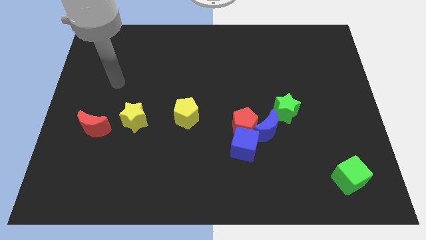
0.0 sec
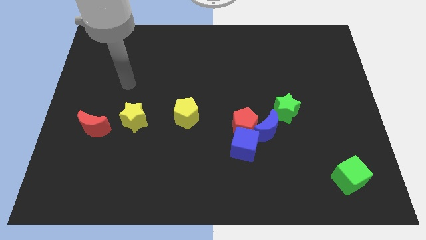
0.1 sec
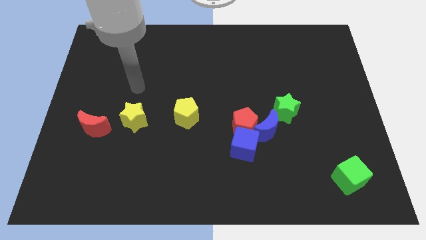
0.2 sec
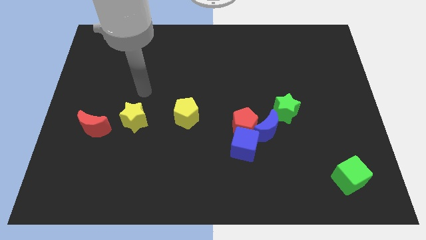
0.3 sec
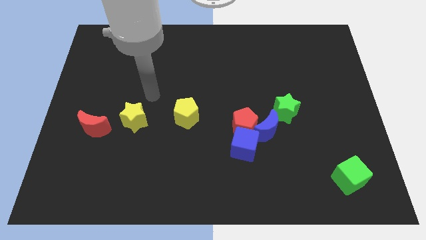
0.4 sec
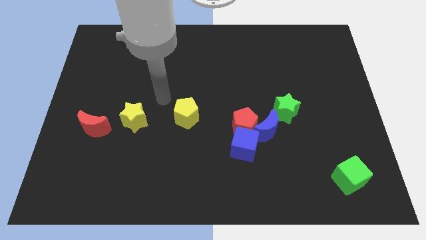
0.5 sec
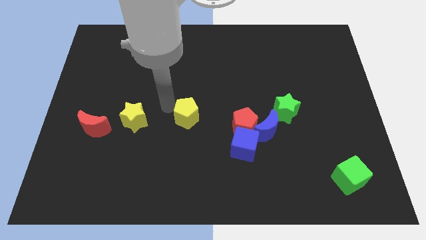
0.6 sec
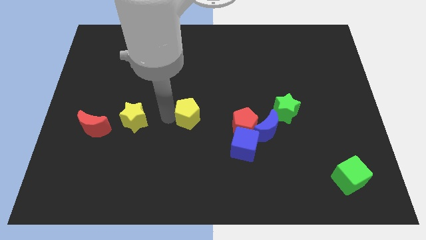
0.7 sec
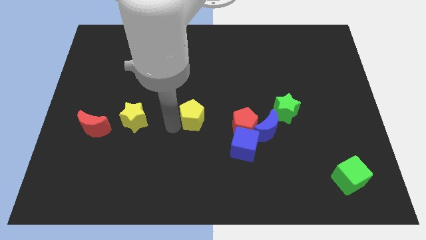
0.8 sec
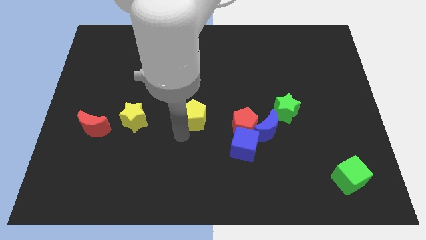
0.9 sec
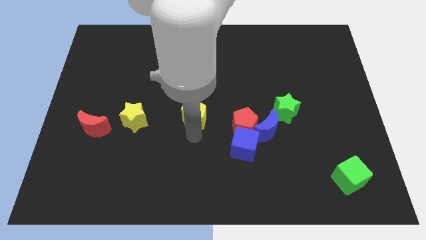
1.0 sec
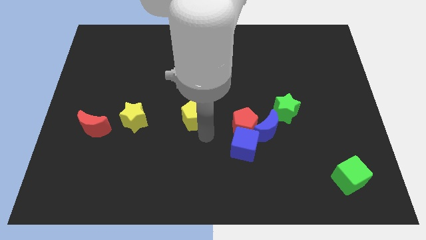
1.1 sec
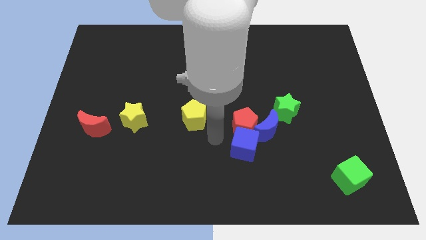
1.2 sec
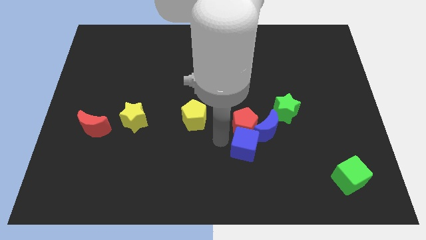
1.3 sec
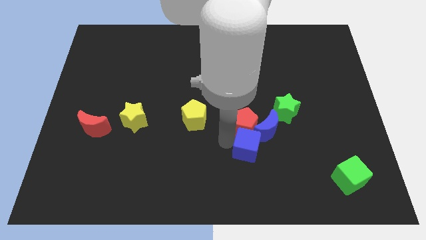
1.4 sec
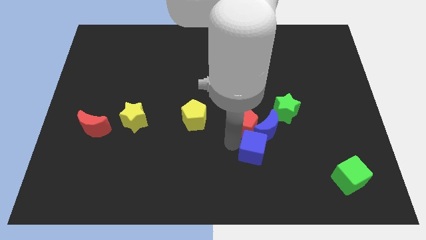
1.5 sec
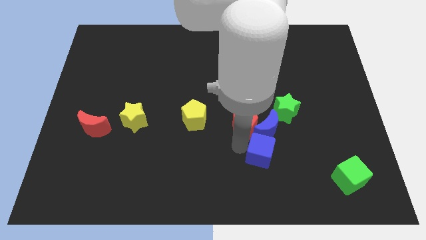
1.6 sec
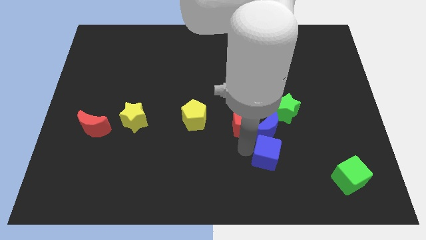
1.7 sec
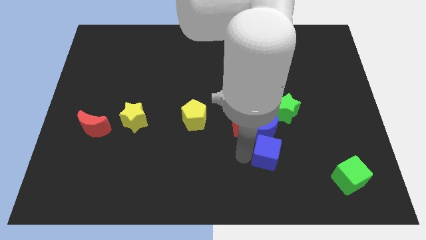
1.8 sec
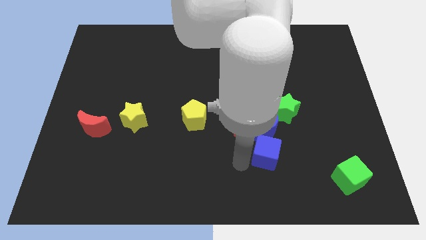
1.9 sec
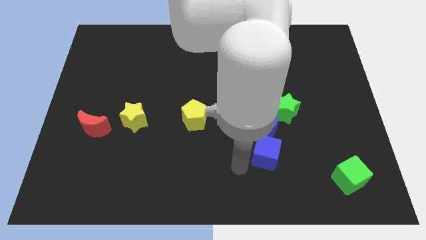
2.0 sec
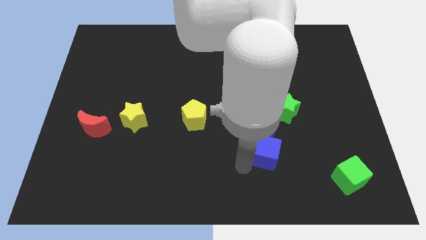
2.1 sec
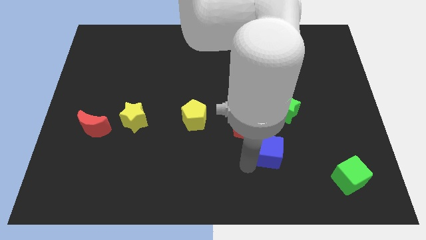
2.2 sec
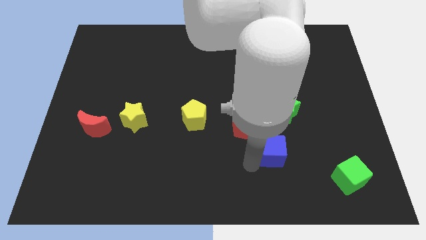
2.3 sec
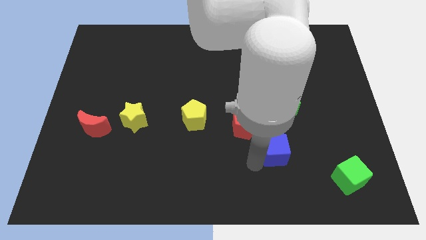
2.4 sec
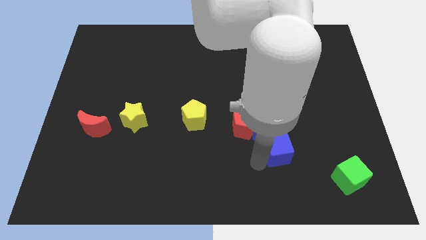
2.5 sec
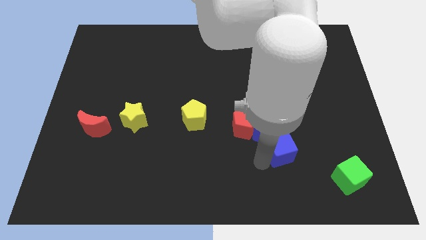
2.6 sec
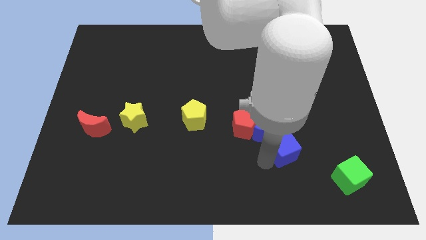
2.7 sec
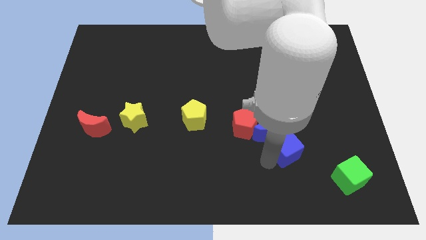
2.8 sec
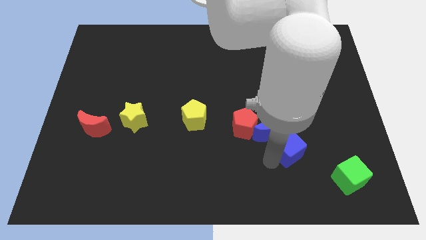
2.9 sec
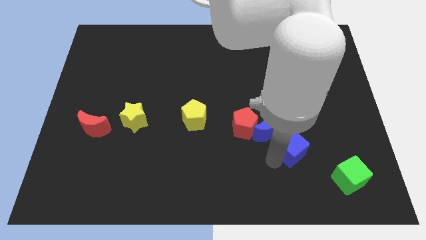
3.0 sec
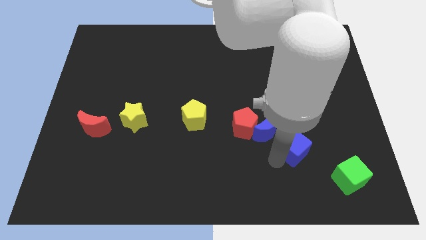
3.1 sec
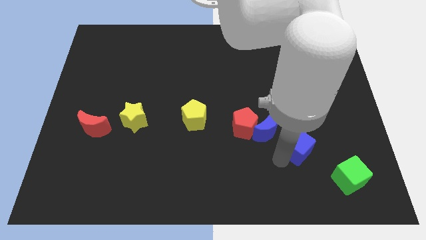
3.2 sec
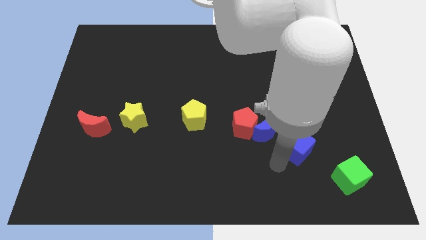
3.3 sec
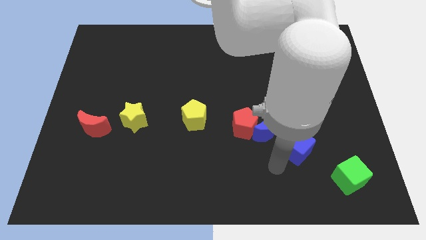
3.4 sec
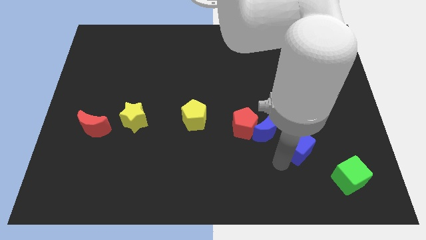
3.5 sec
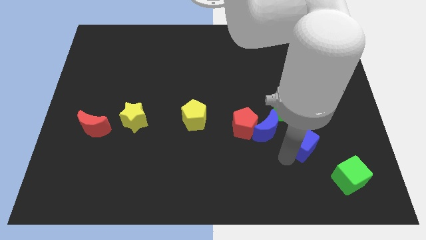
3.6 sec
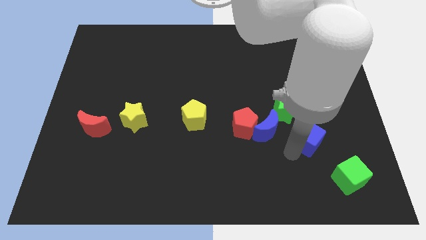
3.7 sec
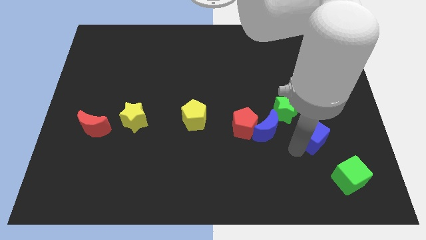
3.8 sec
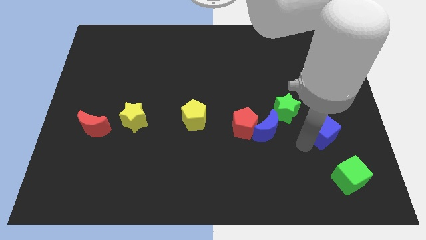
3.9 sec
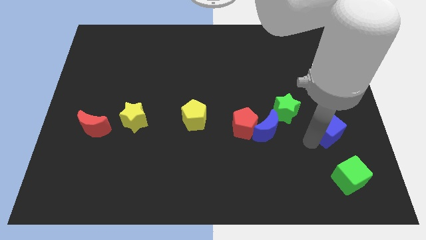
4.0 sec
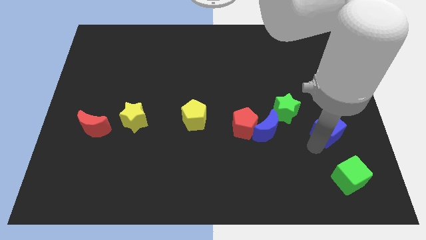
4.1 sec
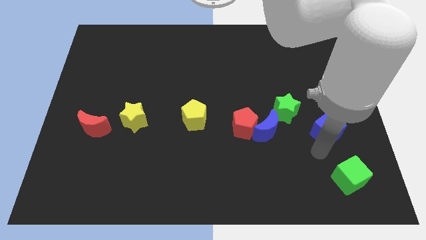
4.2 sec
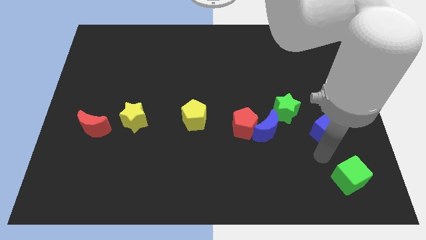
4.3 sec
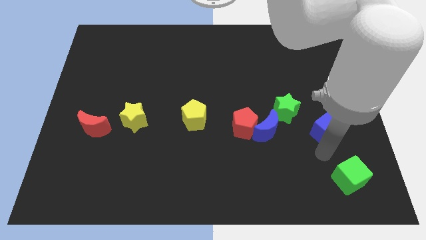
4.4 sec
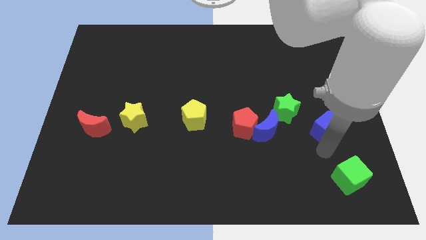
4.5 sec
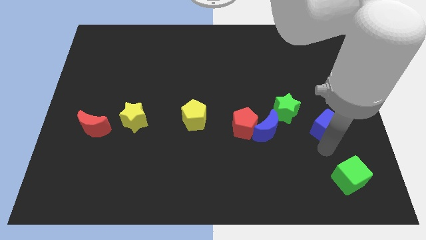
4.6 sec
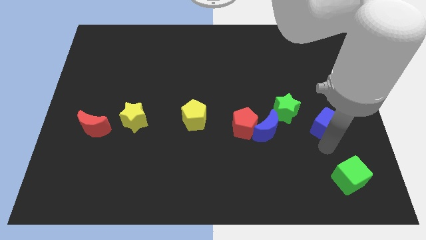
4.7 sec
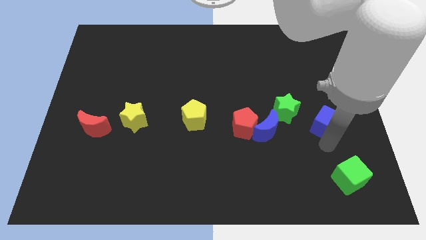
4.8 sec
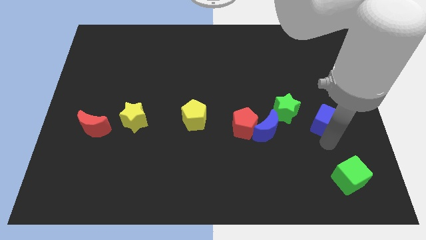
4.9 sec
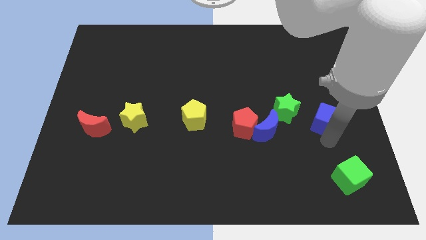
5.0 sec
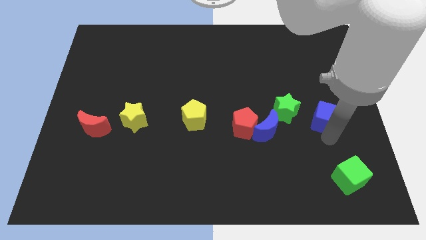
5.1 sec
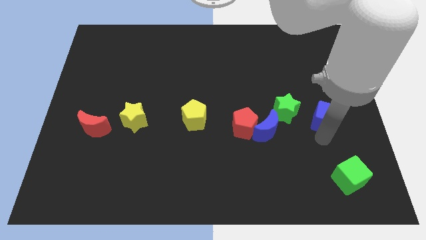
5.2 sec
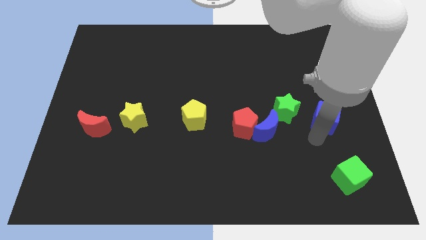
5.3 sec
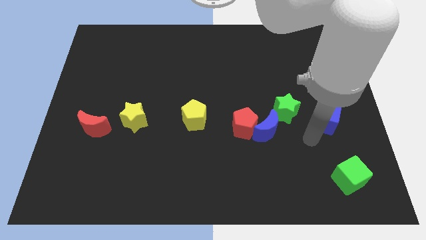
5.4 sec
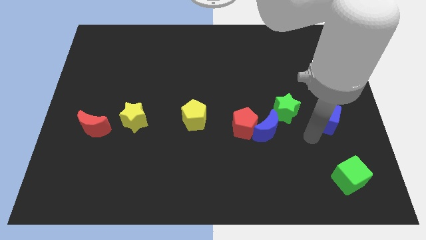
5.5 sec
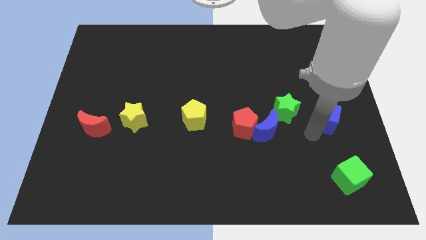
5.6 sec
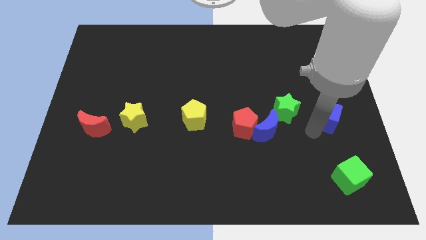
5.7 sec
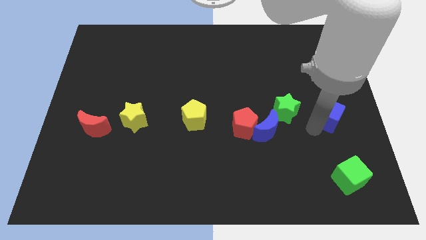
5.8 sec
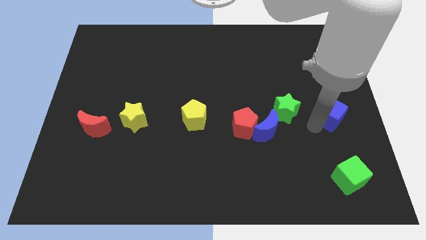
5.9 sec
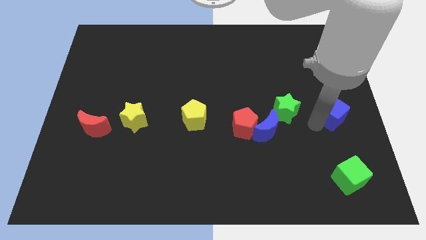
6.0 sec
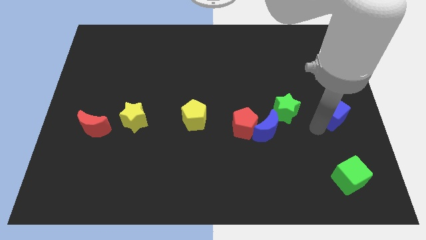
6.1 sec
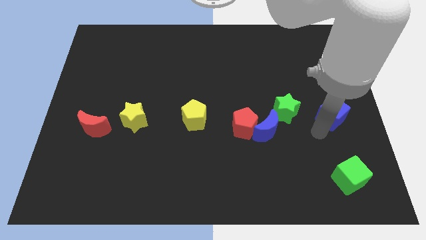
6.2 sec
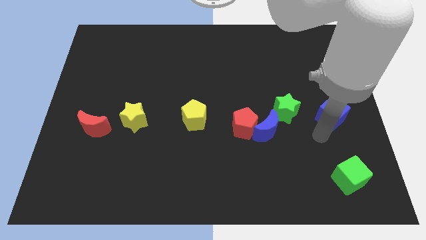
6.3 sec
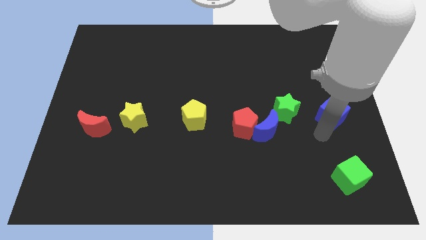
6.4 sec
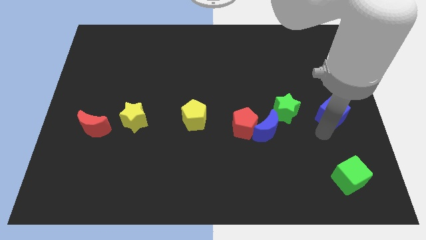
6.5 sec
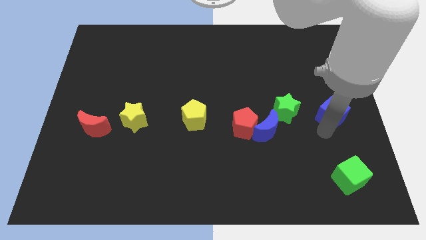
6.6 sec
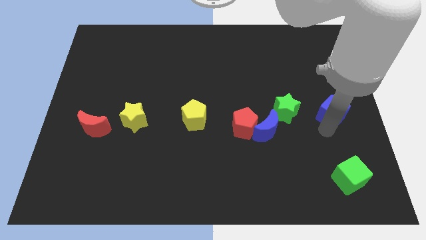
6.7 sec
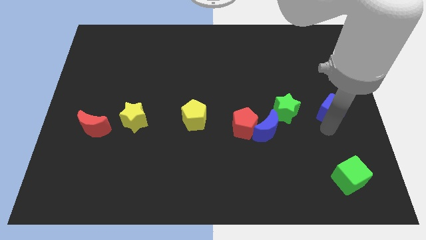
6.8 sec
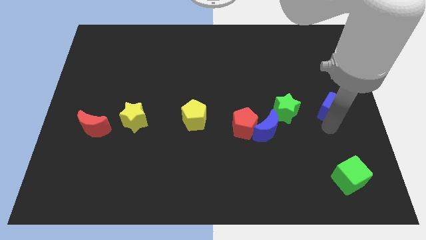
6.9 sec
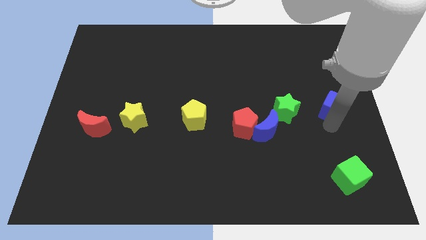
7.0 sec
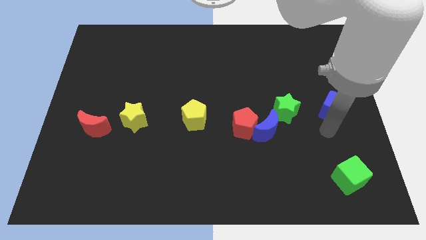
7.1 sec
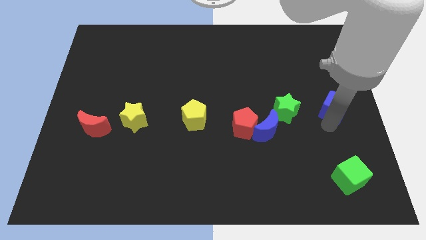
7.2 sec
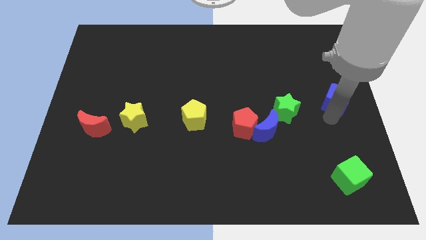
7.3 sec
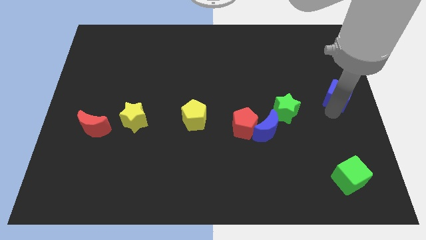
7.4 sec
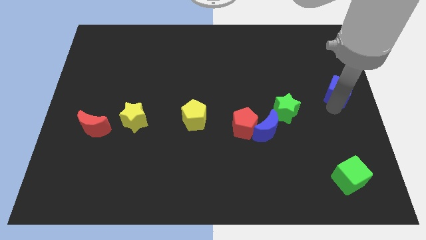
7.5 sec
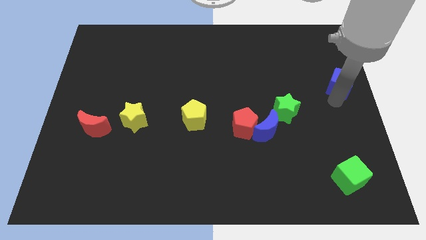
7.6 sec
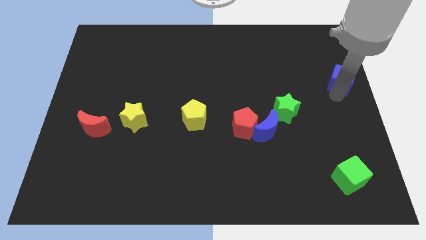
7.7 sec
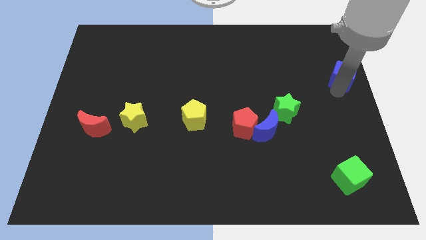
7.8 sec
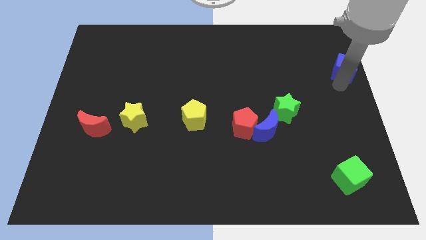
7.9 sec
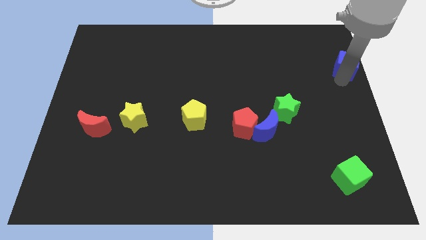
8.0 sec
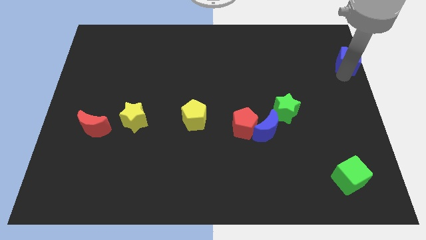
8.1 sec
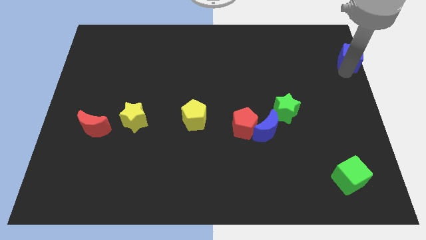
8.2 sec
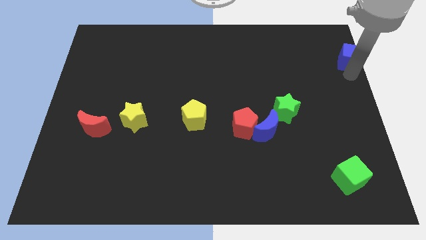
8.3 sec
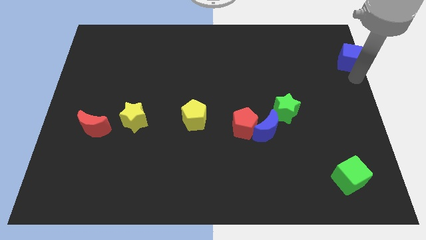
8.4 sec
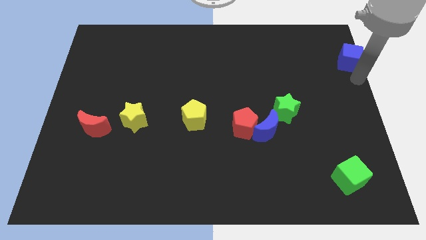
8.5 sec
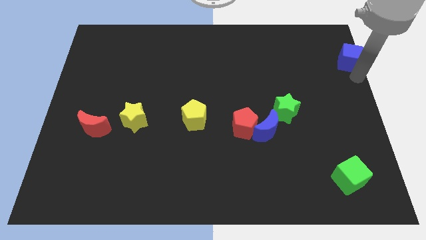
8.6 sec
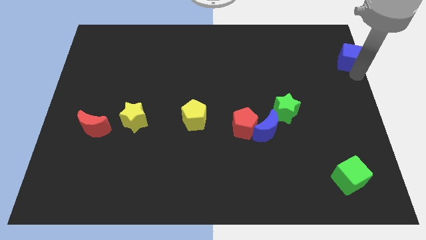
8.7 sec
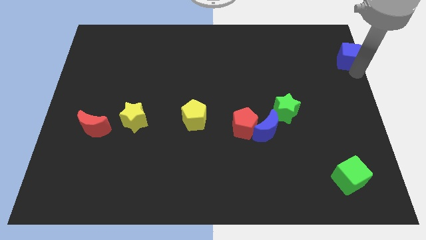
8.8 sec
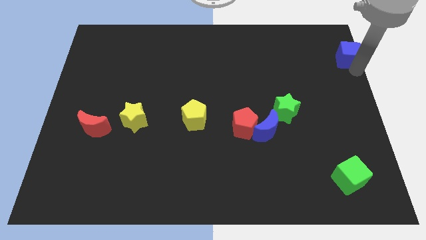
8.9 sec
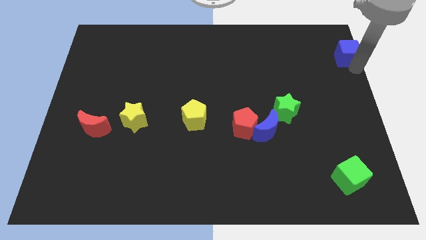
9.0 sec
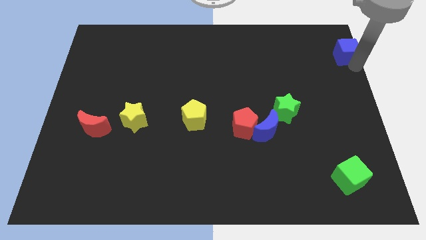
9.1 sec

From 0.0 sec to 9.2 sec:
put the blue cube to the top right corner
